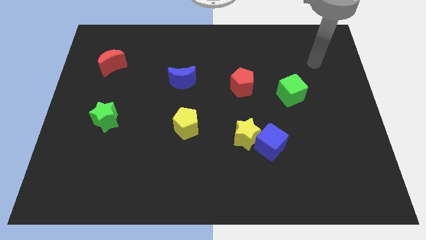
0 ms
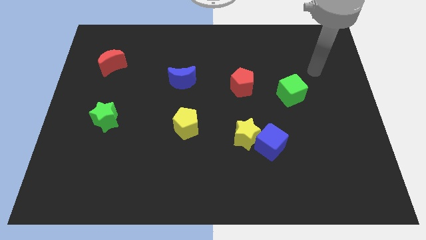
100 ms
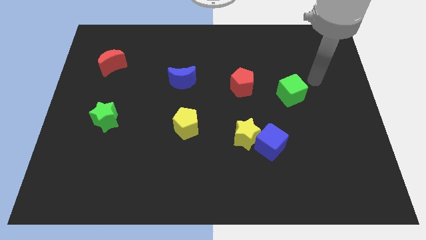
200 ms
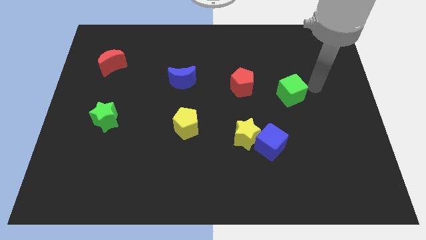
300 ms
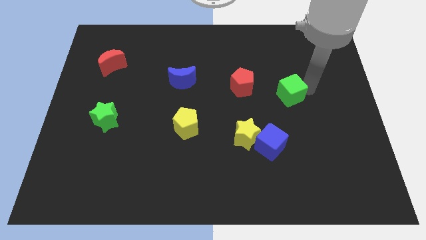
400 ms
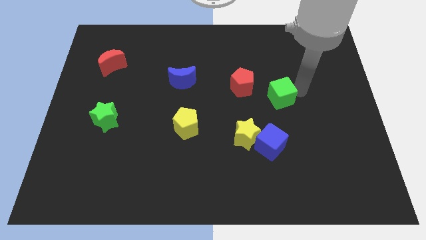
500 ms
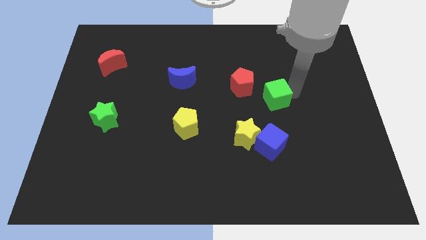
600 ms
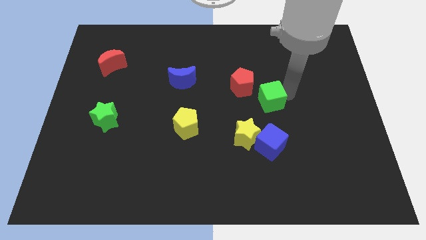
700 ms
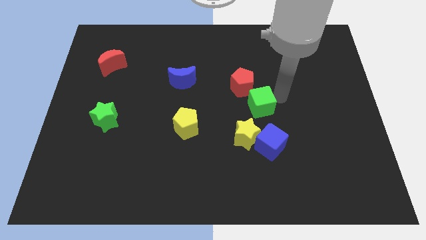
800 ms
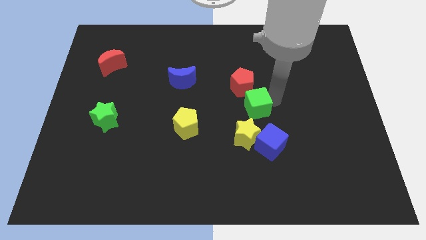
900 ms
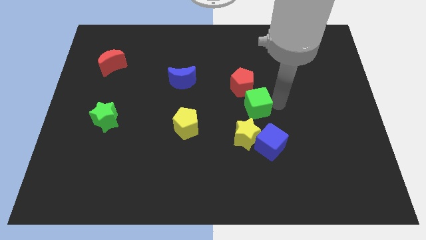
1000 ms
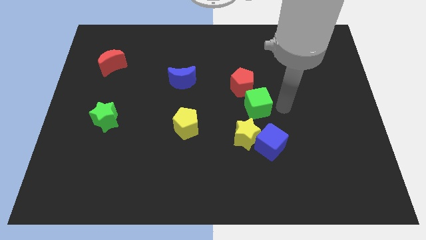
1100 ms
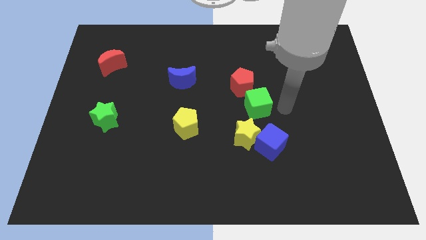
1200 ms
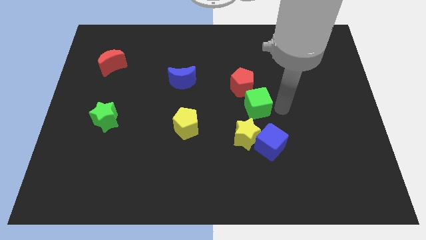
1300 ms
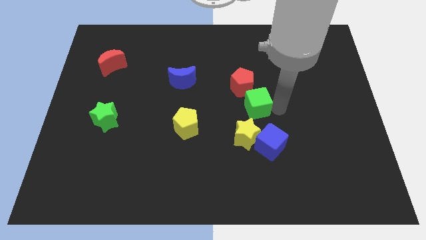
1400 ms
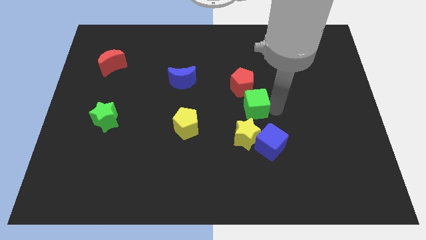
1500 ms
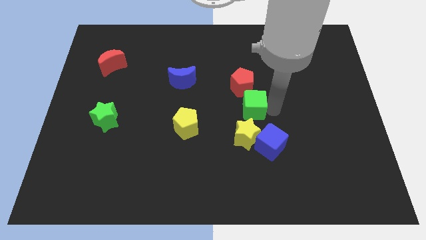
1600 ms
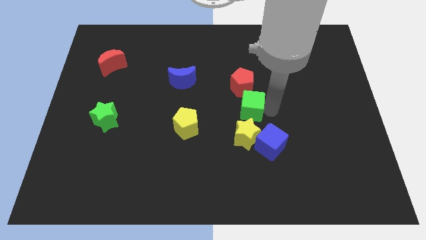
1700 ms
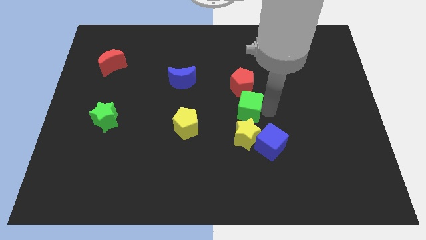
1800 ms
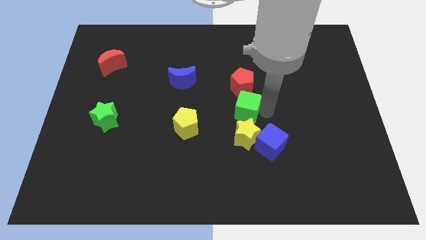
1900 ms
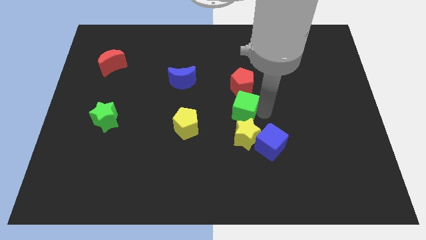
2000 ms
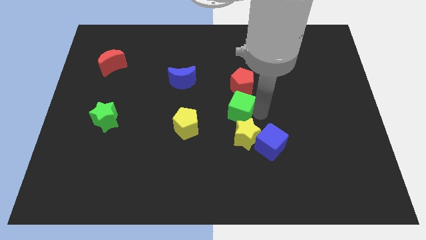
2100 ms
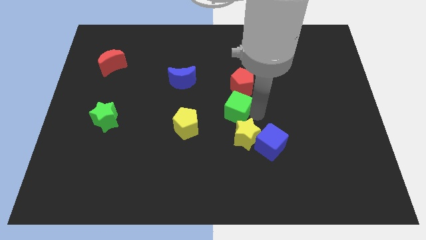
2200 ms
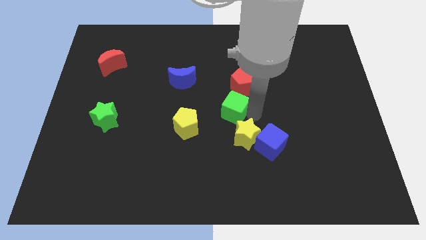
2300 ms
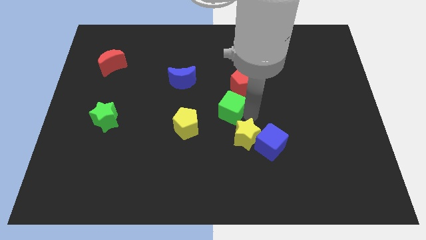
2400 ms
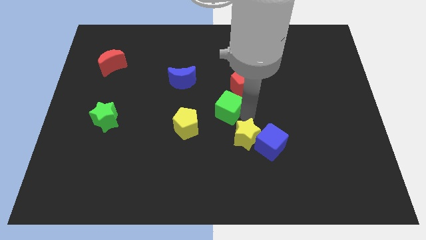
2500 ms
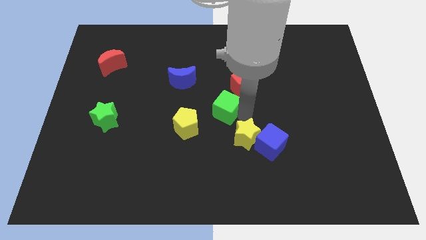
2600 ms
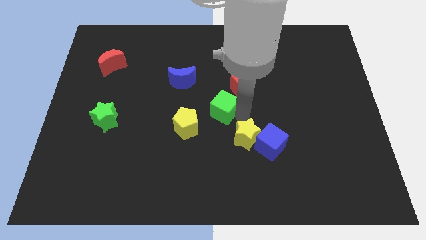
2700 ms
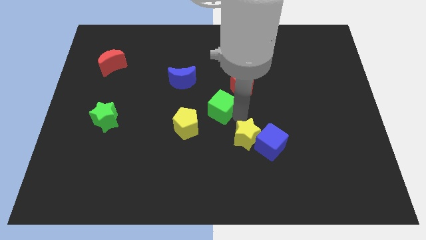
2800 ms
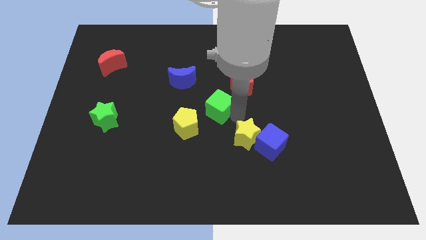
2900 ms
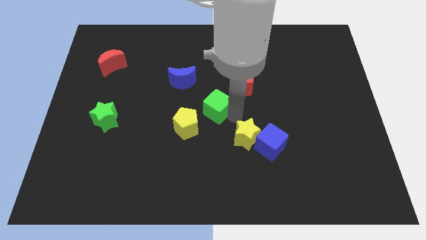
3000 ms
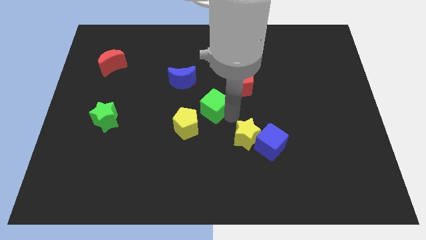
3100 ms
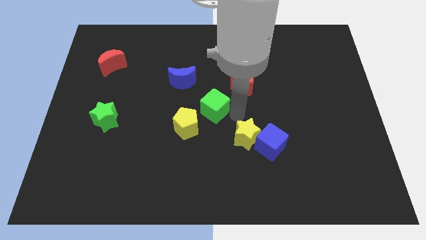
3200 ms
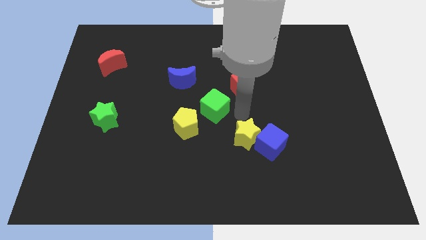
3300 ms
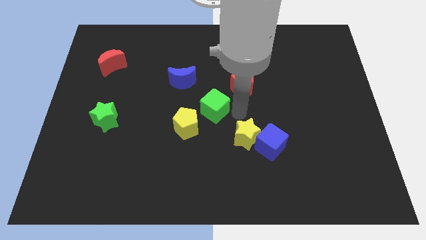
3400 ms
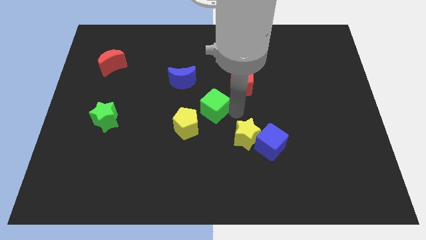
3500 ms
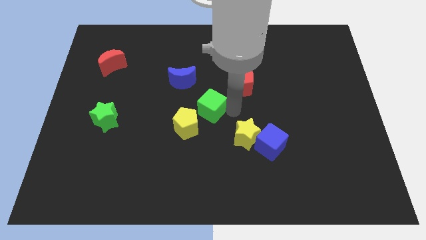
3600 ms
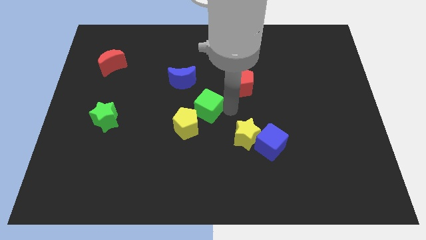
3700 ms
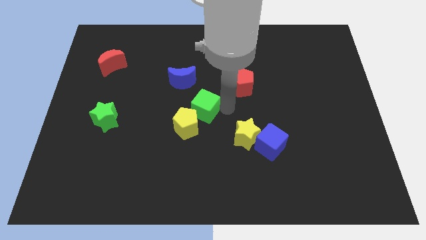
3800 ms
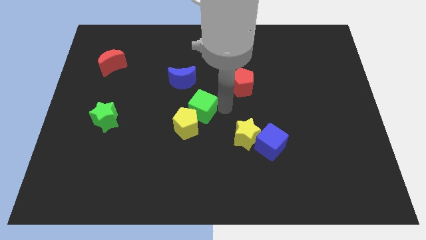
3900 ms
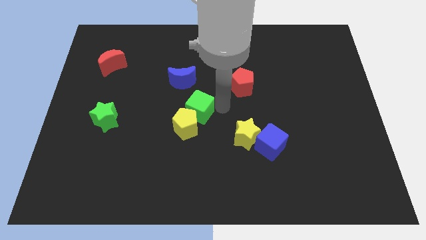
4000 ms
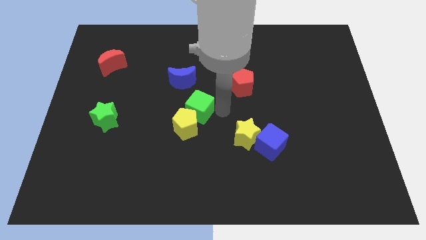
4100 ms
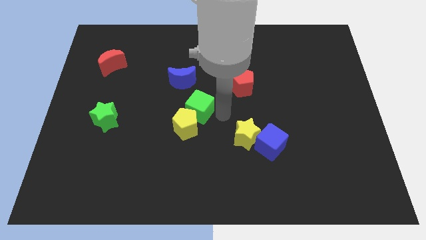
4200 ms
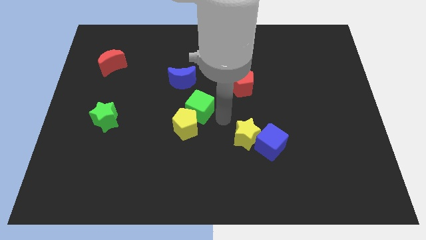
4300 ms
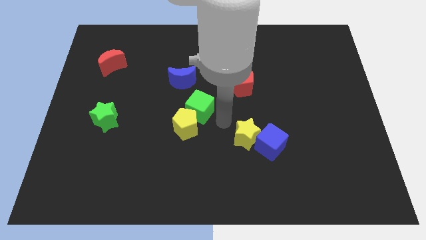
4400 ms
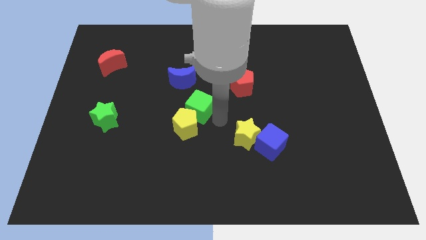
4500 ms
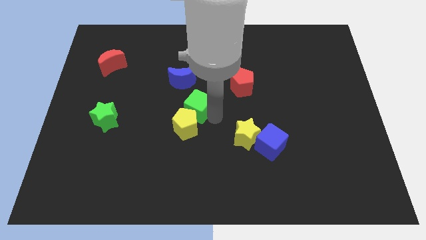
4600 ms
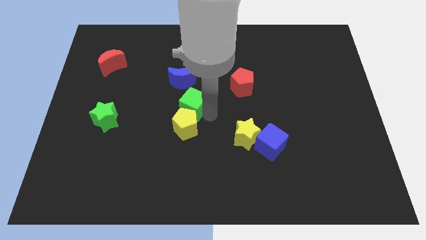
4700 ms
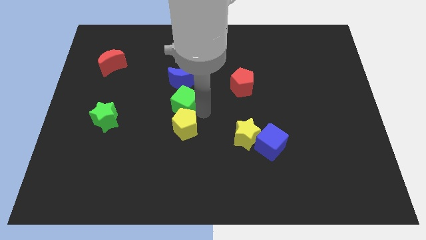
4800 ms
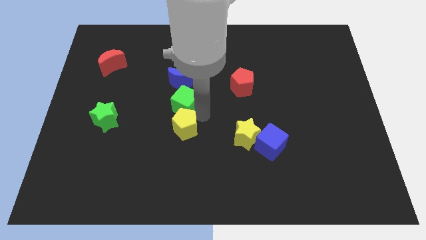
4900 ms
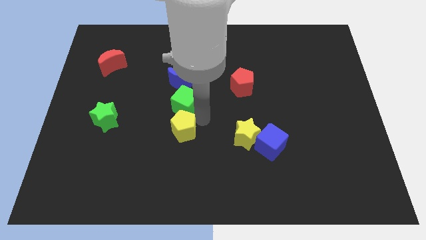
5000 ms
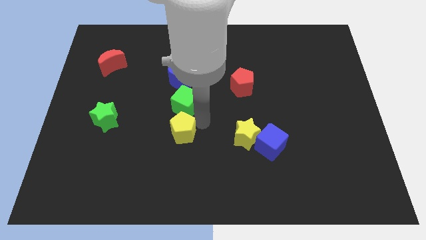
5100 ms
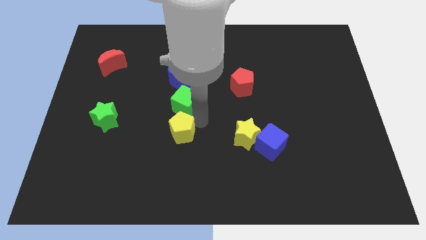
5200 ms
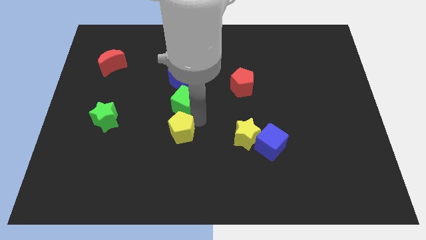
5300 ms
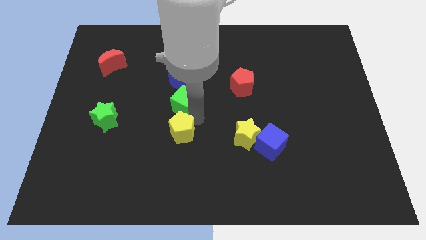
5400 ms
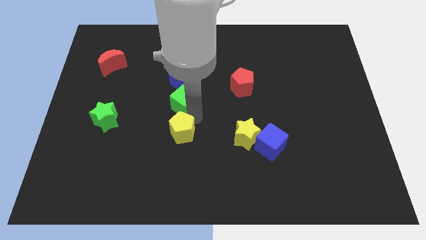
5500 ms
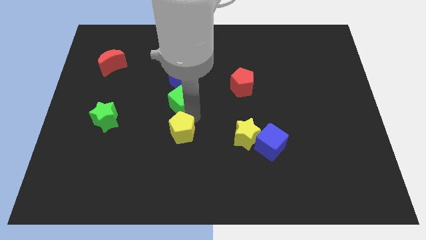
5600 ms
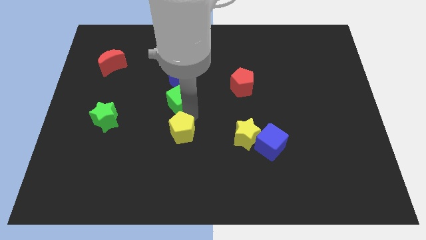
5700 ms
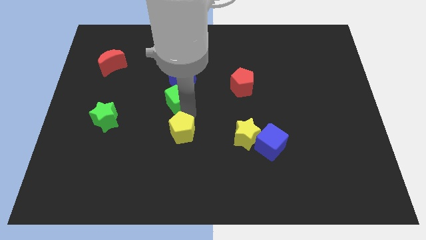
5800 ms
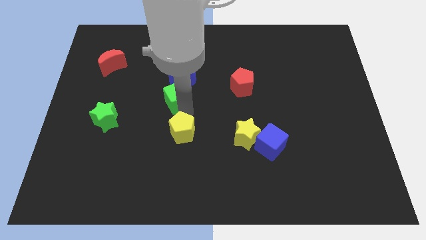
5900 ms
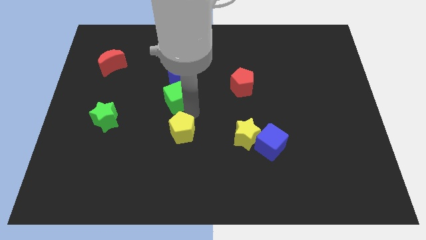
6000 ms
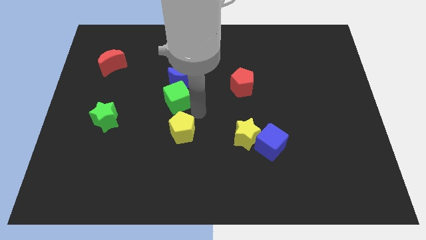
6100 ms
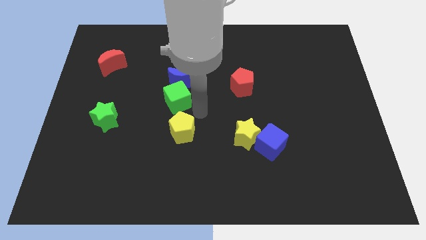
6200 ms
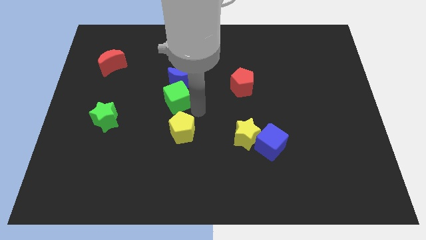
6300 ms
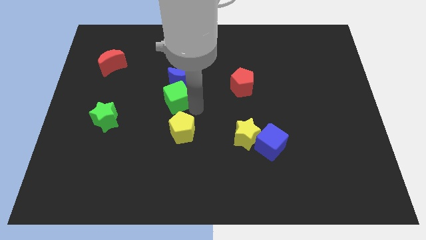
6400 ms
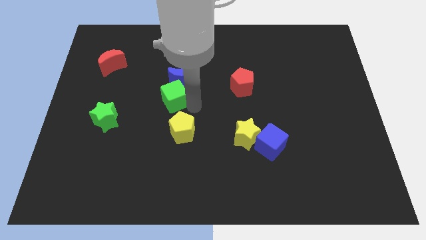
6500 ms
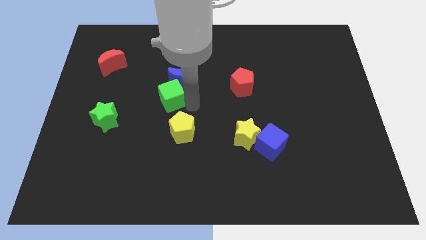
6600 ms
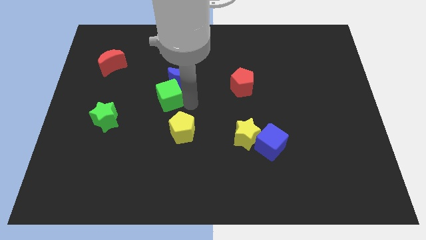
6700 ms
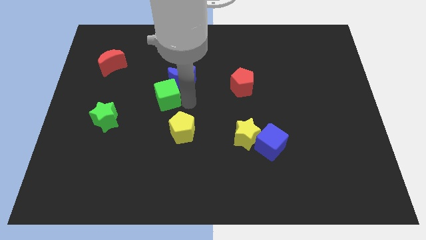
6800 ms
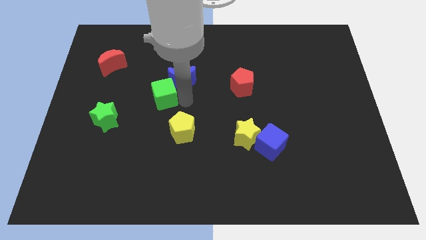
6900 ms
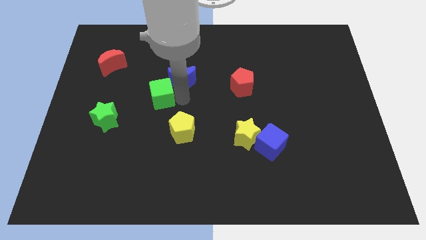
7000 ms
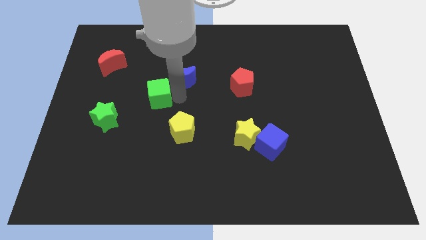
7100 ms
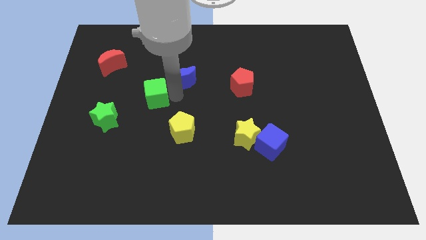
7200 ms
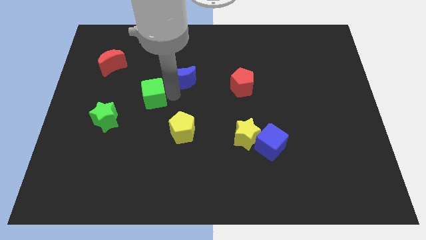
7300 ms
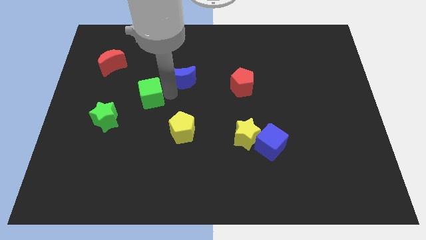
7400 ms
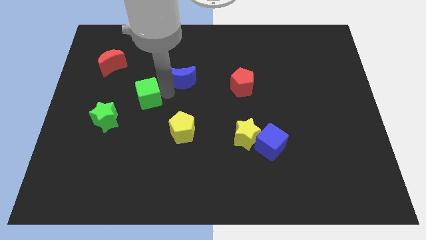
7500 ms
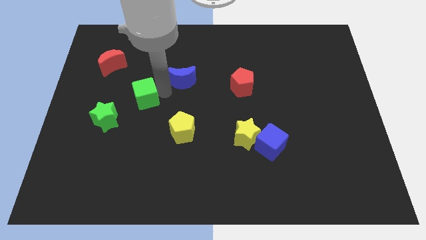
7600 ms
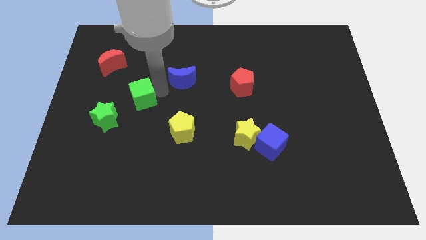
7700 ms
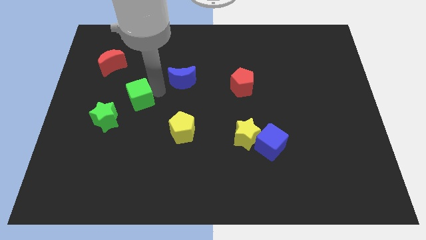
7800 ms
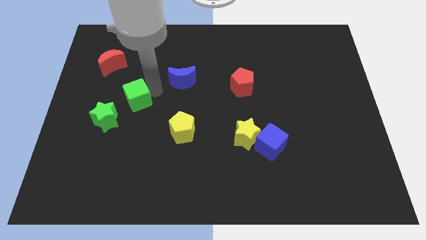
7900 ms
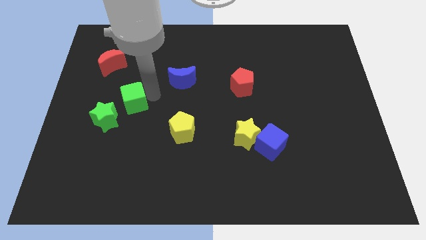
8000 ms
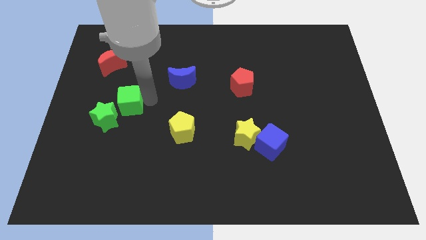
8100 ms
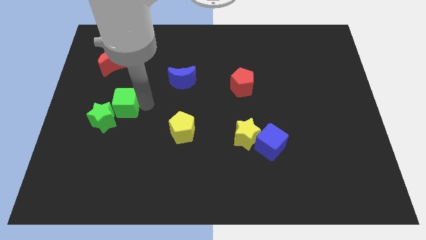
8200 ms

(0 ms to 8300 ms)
slide the green cube to the top side of the green star
